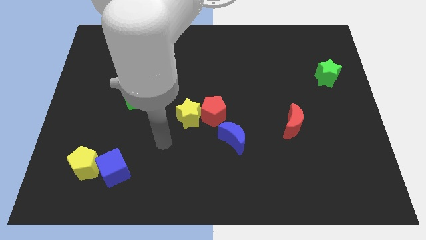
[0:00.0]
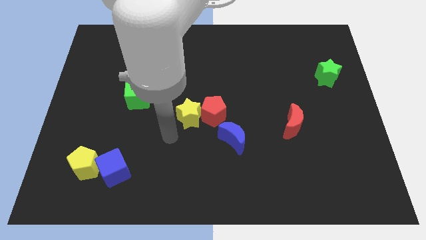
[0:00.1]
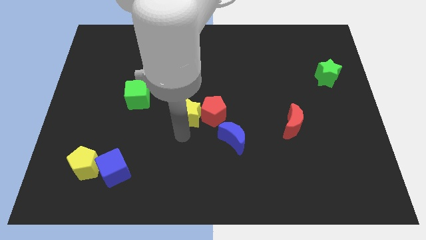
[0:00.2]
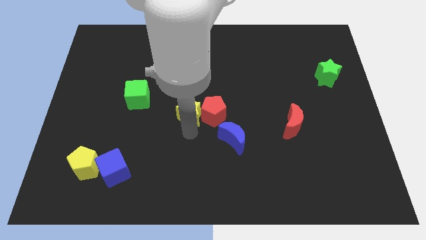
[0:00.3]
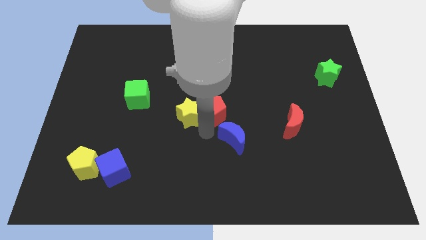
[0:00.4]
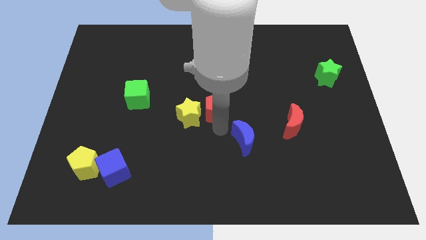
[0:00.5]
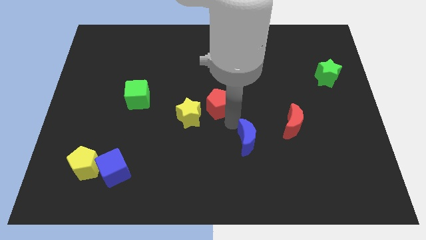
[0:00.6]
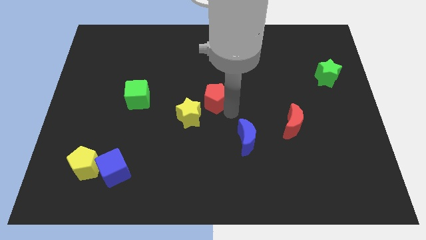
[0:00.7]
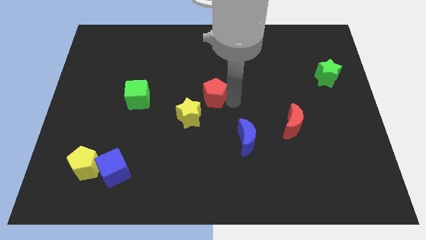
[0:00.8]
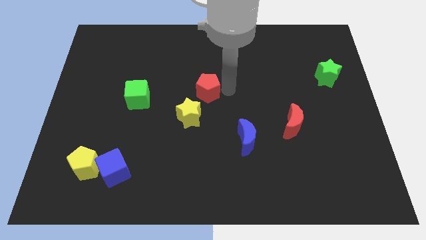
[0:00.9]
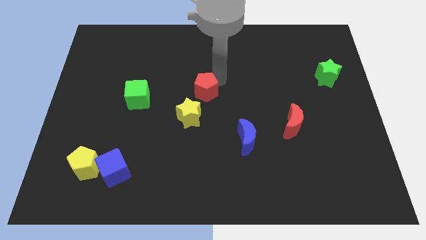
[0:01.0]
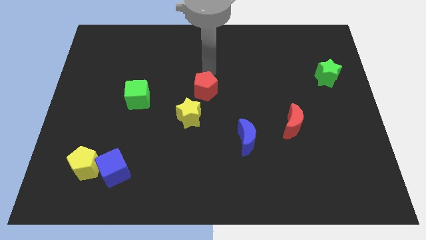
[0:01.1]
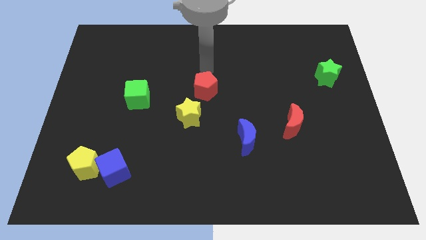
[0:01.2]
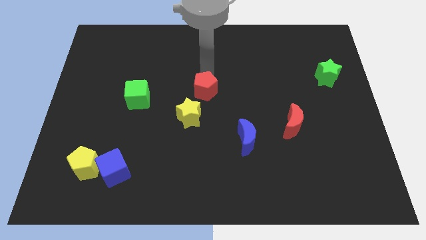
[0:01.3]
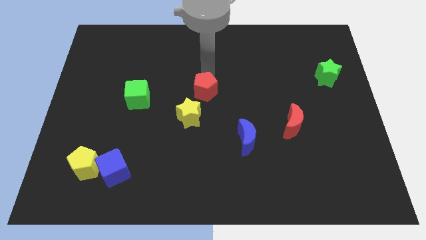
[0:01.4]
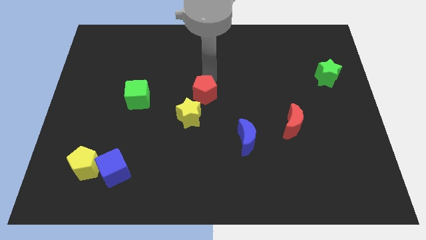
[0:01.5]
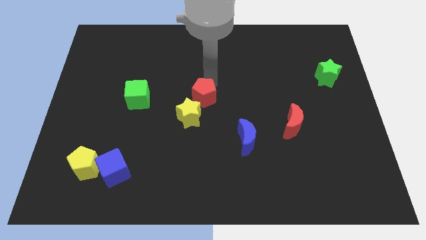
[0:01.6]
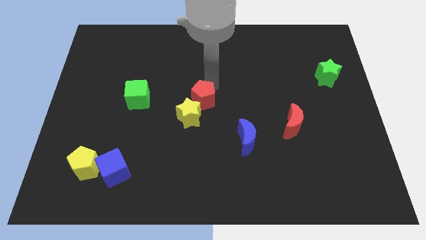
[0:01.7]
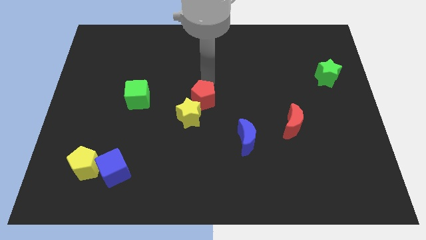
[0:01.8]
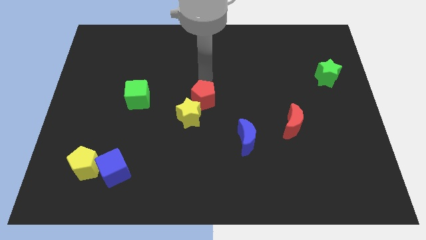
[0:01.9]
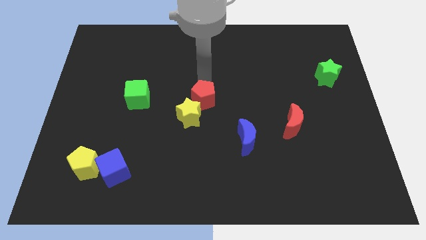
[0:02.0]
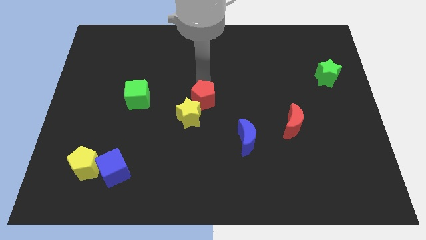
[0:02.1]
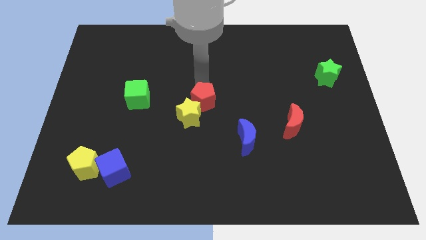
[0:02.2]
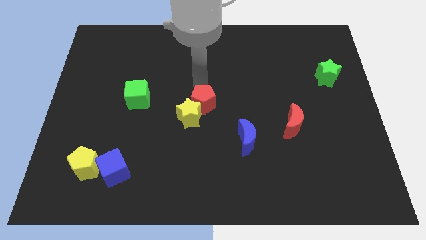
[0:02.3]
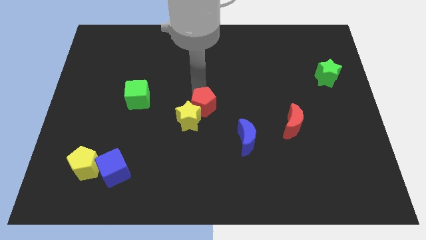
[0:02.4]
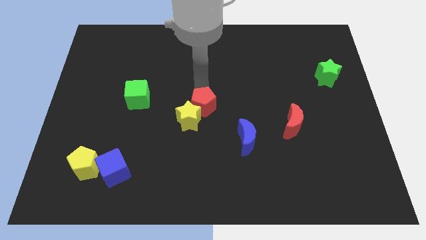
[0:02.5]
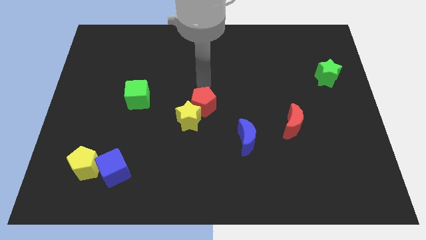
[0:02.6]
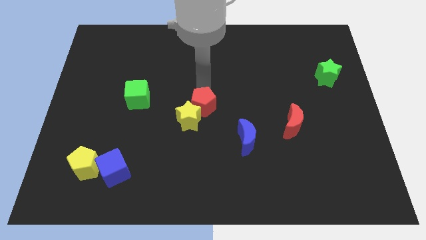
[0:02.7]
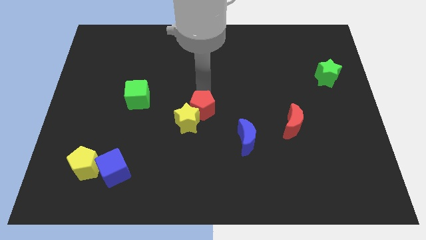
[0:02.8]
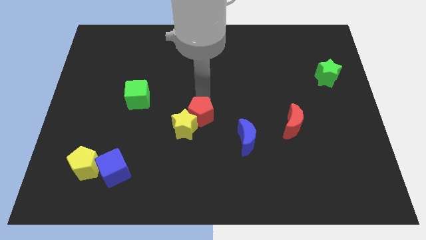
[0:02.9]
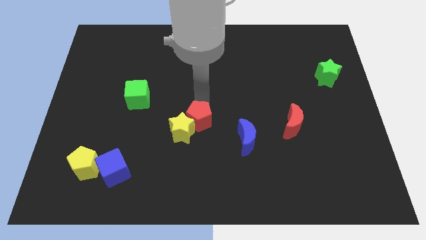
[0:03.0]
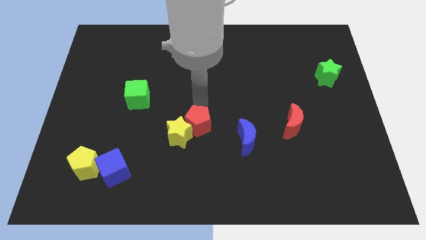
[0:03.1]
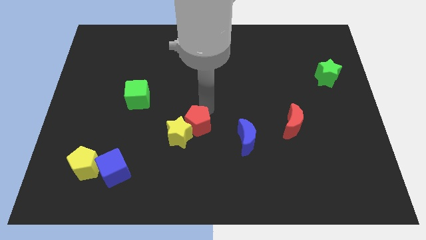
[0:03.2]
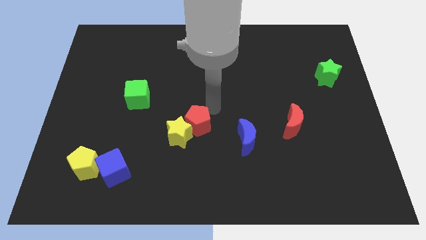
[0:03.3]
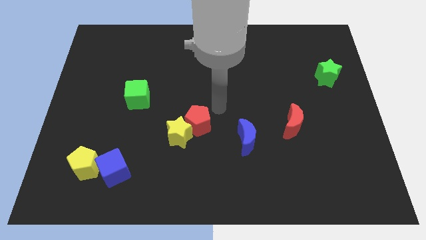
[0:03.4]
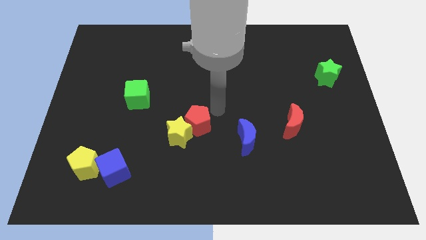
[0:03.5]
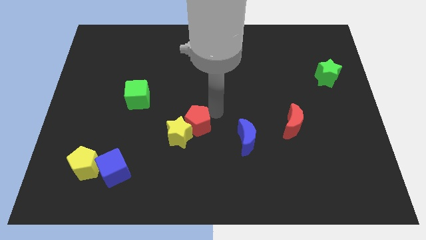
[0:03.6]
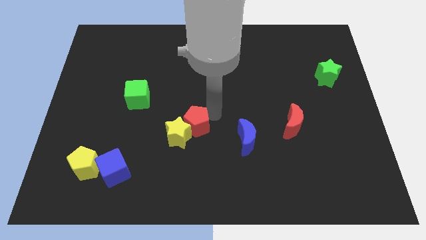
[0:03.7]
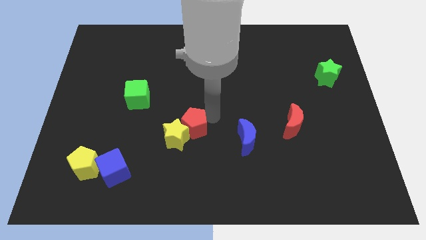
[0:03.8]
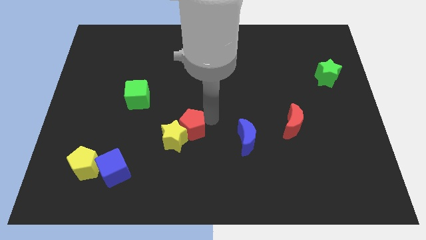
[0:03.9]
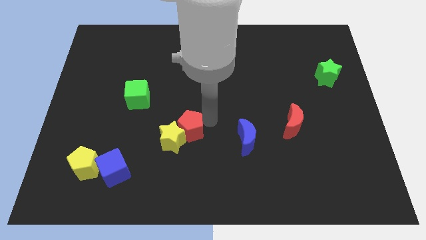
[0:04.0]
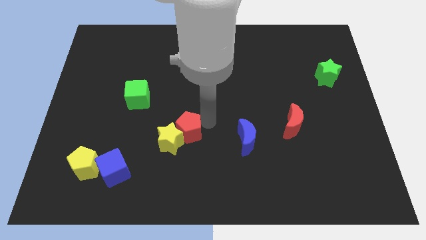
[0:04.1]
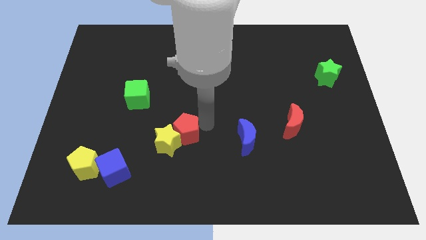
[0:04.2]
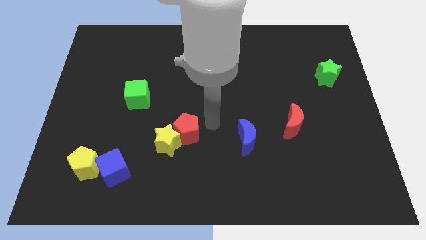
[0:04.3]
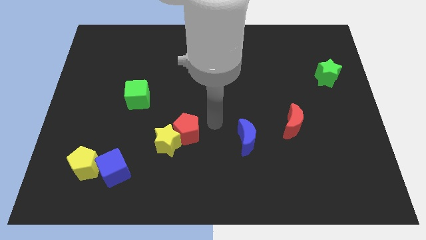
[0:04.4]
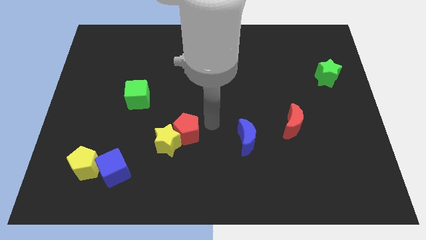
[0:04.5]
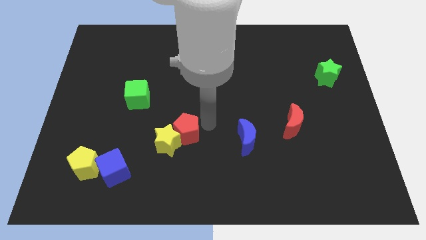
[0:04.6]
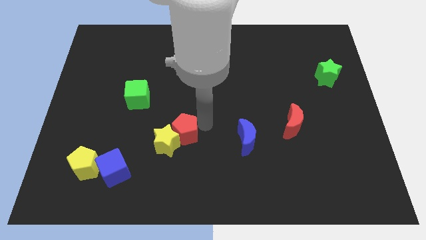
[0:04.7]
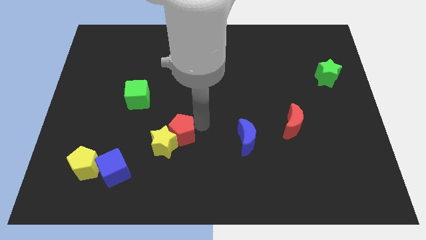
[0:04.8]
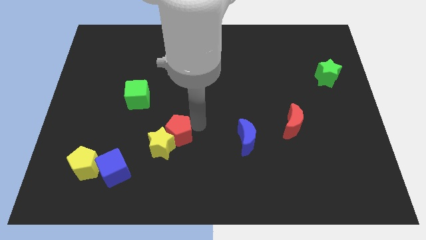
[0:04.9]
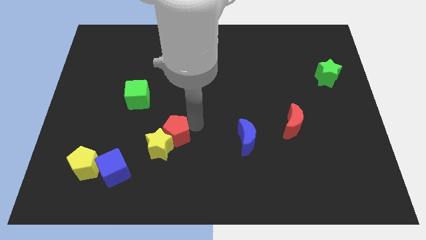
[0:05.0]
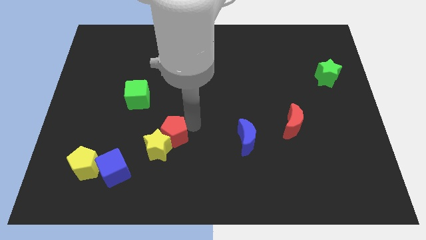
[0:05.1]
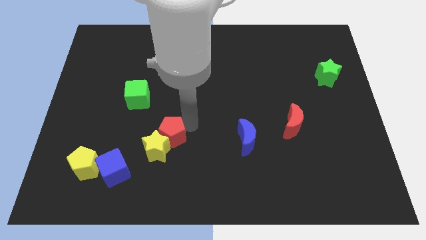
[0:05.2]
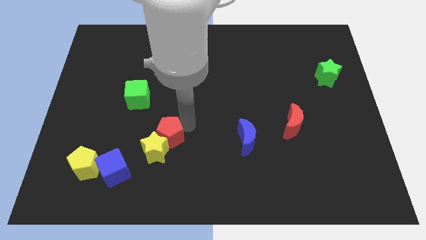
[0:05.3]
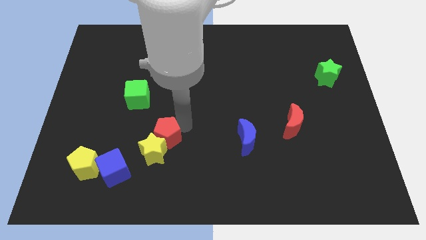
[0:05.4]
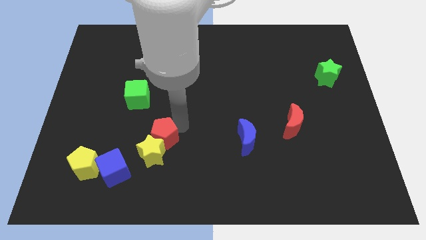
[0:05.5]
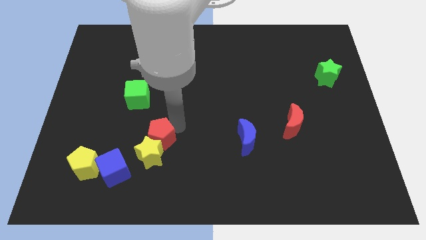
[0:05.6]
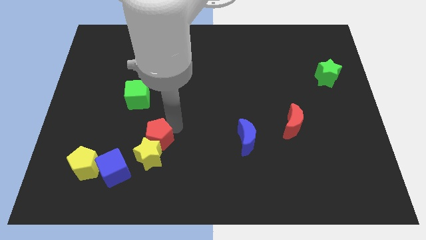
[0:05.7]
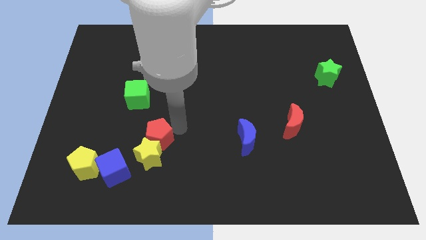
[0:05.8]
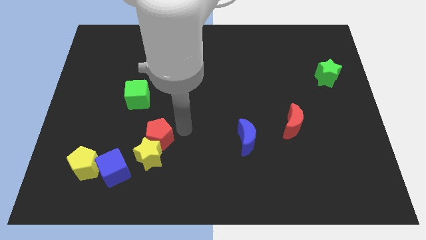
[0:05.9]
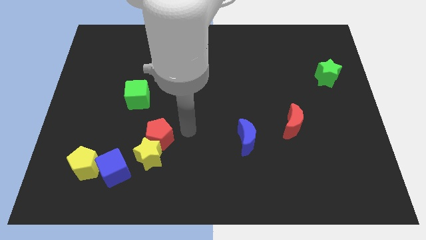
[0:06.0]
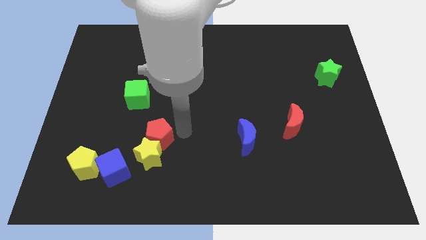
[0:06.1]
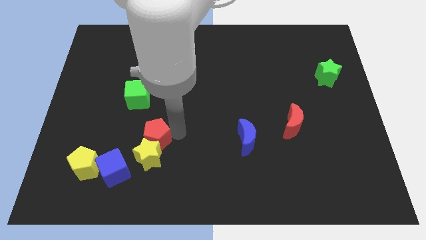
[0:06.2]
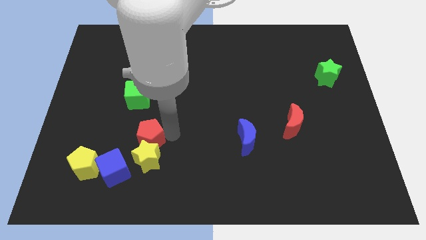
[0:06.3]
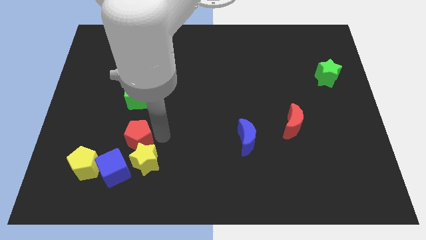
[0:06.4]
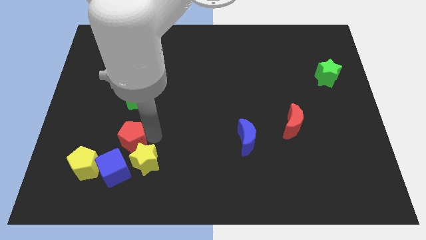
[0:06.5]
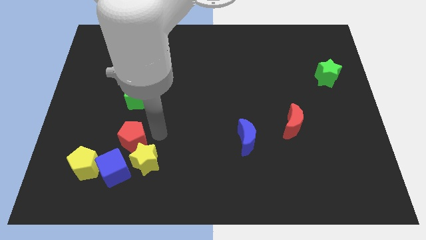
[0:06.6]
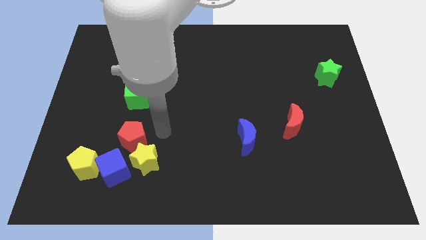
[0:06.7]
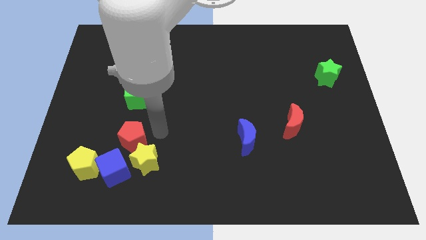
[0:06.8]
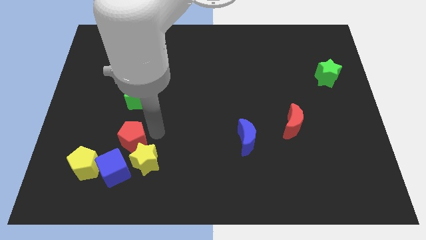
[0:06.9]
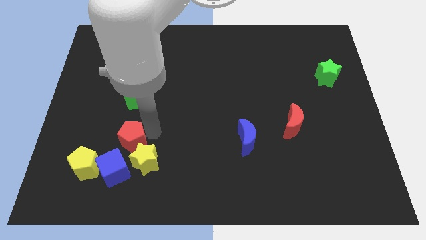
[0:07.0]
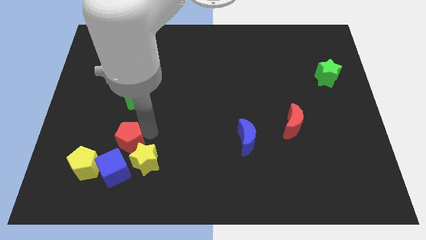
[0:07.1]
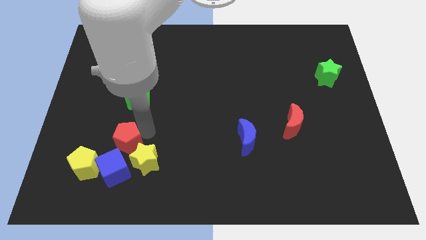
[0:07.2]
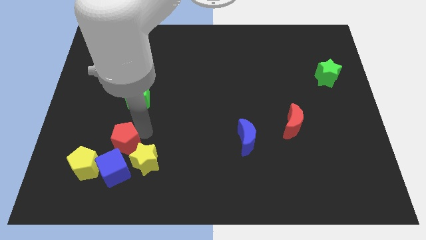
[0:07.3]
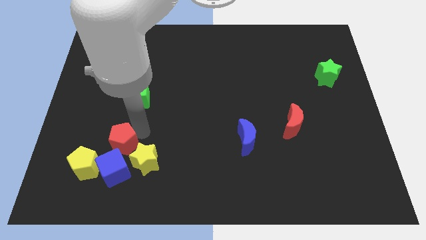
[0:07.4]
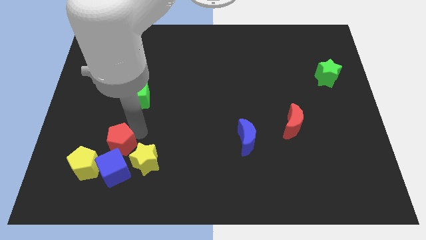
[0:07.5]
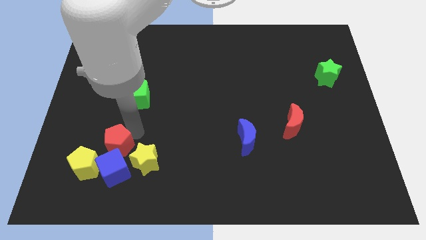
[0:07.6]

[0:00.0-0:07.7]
slide the red pentagon to the top left of the blue cube
